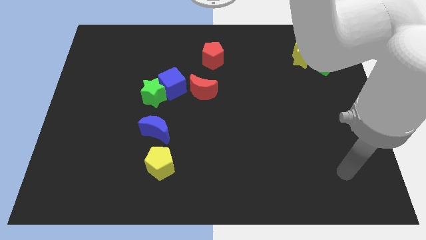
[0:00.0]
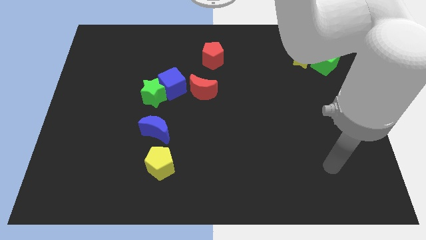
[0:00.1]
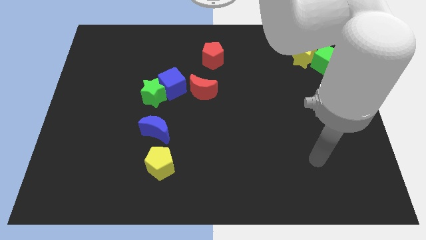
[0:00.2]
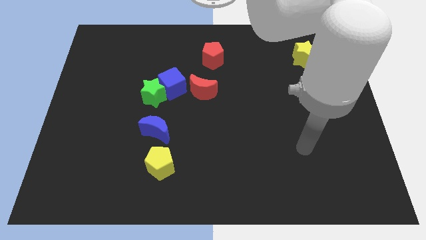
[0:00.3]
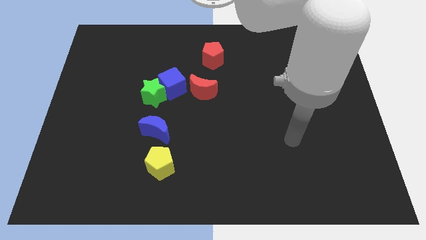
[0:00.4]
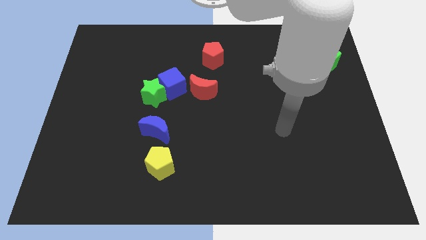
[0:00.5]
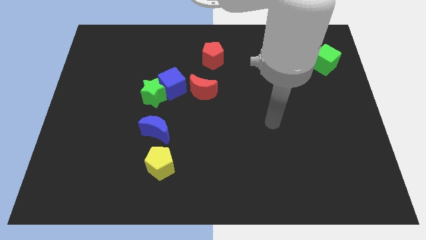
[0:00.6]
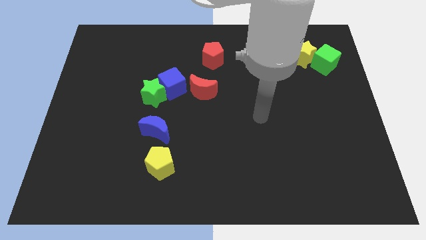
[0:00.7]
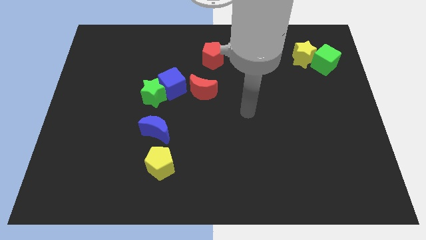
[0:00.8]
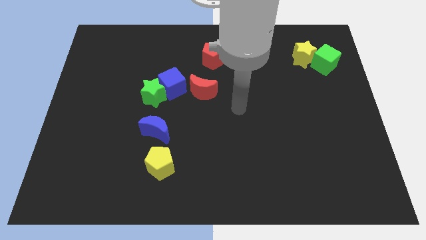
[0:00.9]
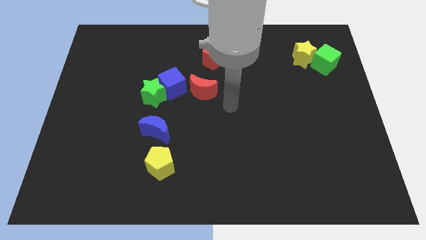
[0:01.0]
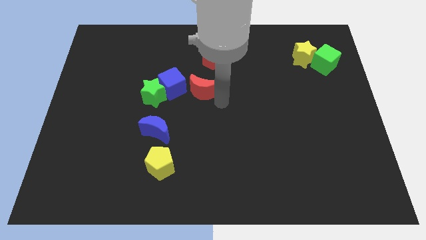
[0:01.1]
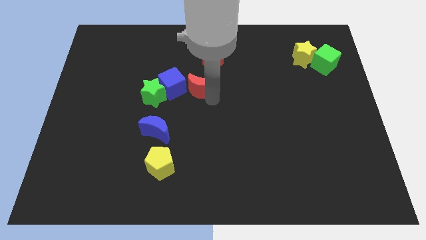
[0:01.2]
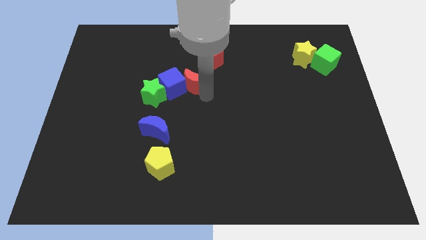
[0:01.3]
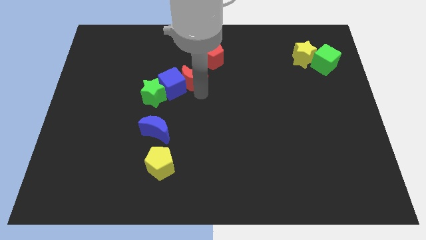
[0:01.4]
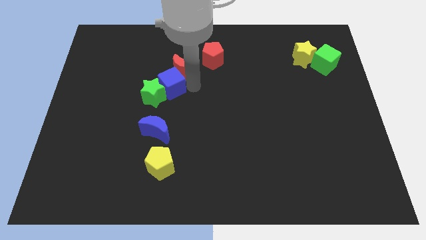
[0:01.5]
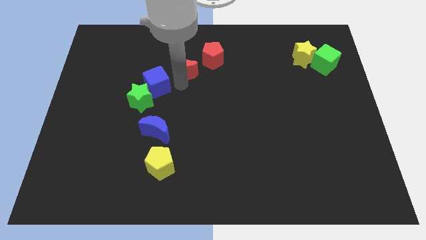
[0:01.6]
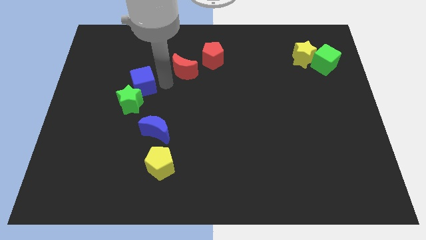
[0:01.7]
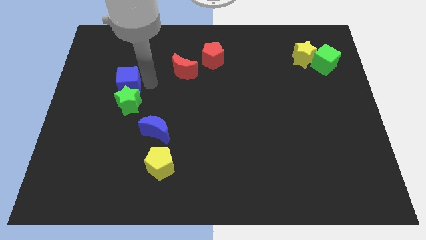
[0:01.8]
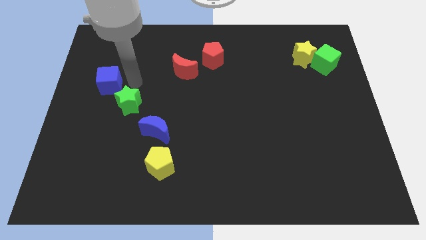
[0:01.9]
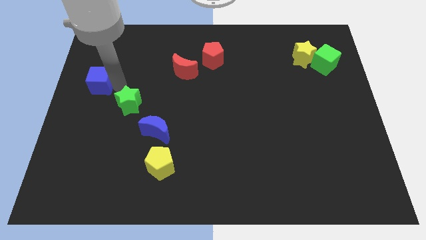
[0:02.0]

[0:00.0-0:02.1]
move the green star away from the blue cube

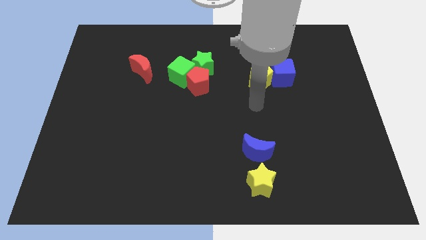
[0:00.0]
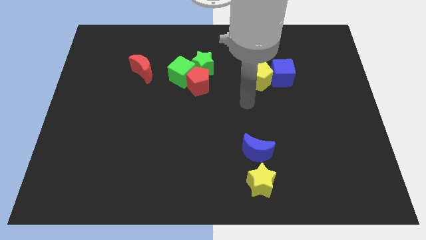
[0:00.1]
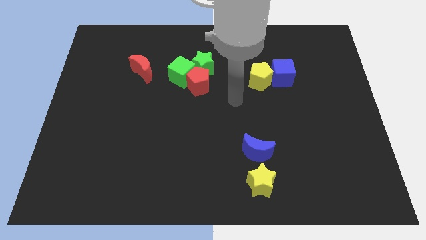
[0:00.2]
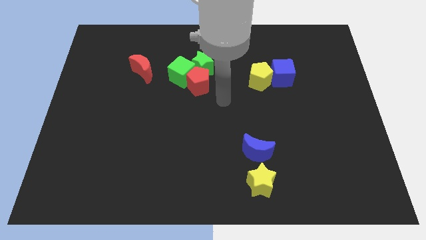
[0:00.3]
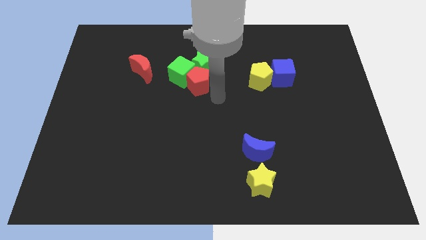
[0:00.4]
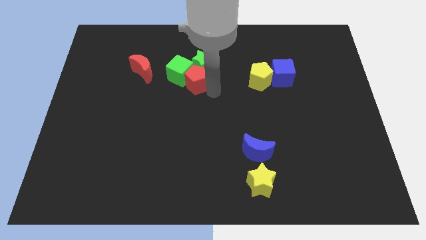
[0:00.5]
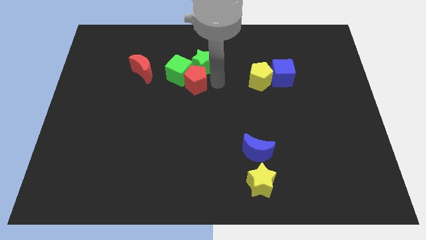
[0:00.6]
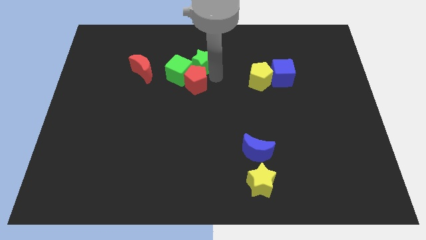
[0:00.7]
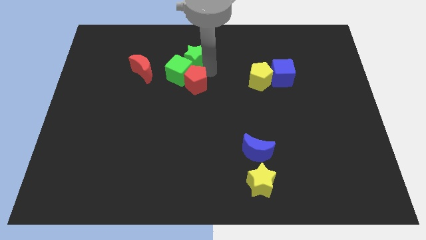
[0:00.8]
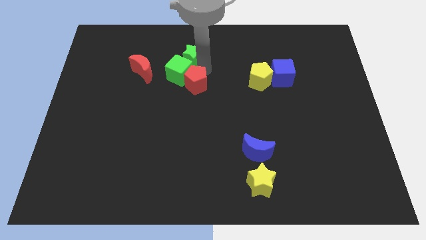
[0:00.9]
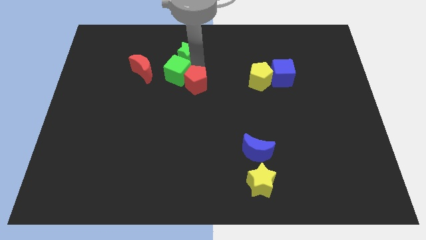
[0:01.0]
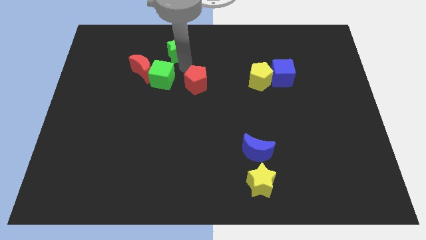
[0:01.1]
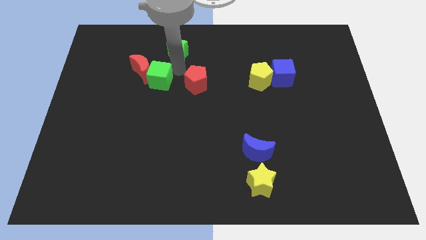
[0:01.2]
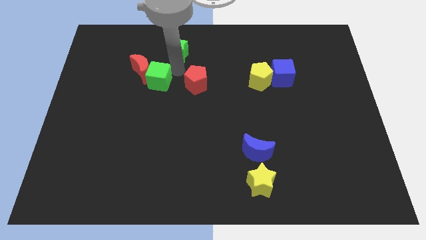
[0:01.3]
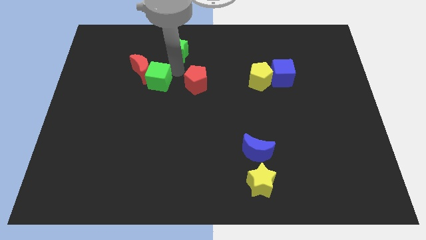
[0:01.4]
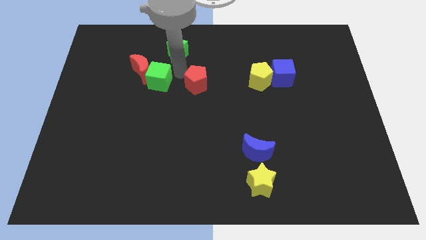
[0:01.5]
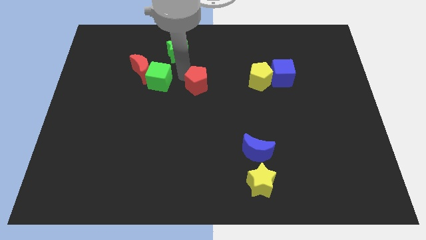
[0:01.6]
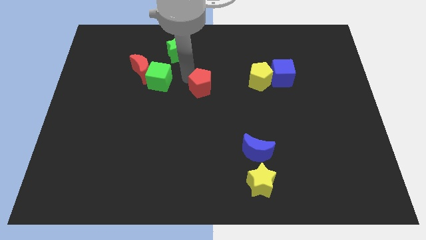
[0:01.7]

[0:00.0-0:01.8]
separate the red pentagon from the green cube and green star

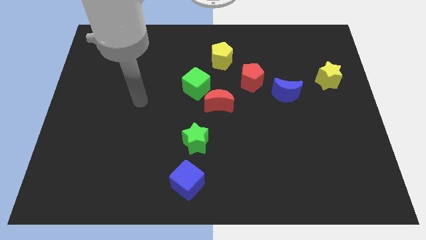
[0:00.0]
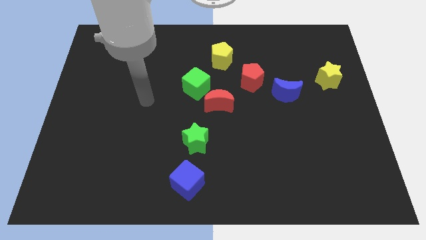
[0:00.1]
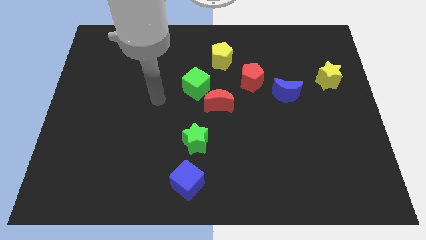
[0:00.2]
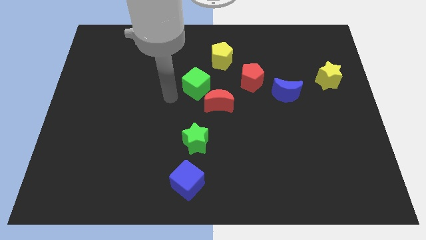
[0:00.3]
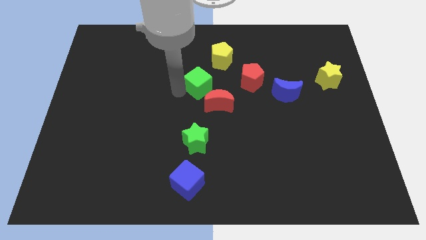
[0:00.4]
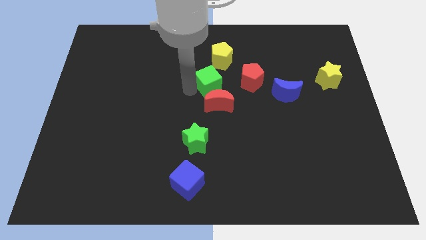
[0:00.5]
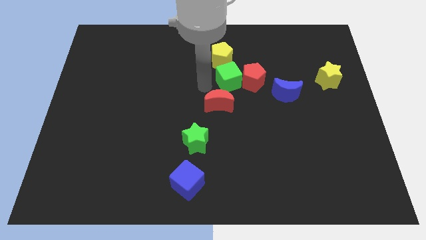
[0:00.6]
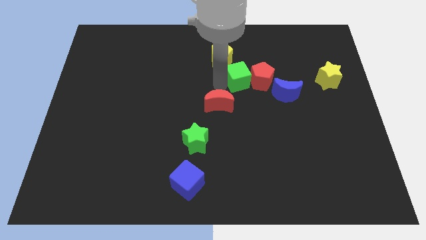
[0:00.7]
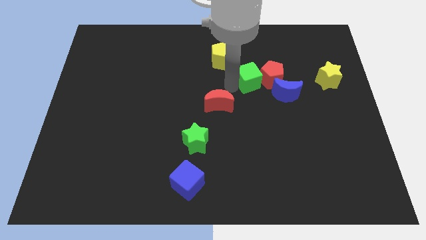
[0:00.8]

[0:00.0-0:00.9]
separate the red moon from the green cube

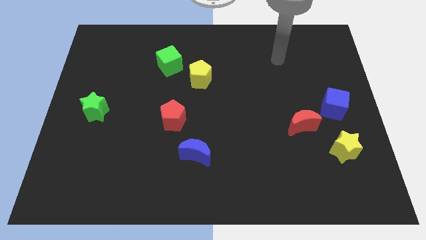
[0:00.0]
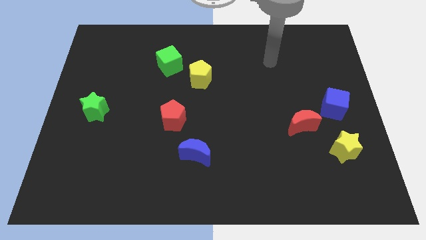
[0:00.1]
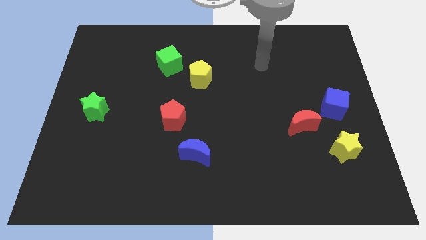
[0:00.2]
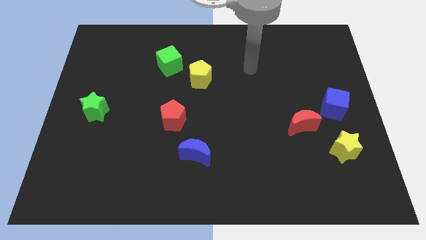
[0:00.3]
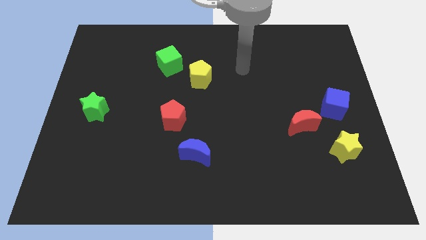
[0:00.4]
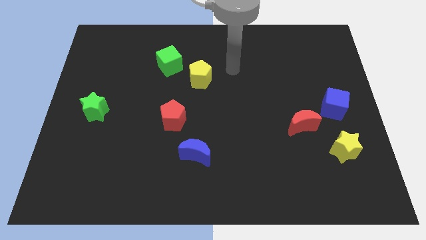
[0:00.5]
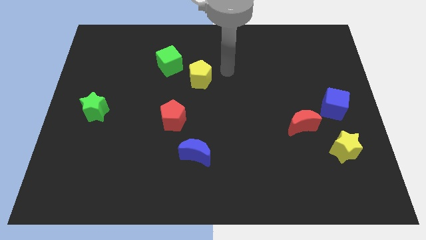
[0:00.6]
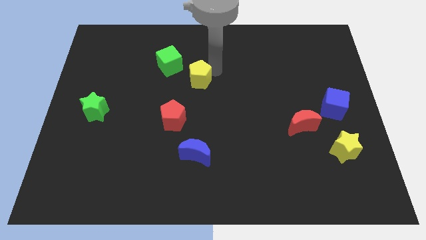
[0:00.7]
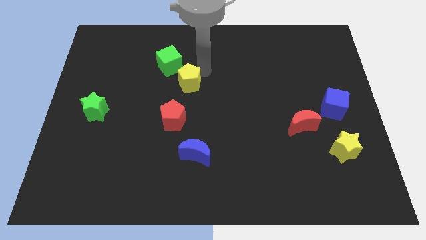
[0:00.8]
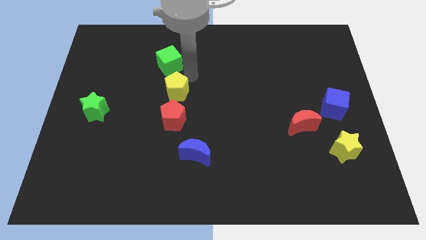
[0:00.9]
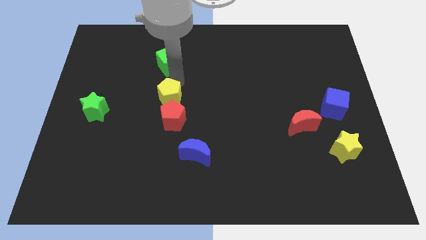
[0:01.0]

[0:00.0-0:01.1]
separate the green cube from the yellow pentagon

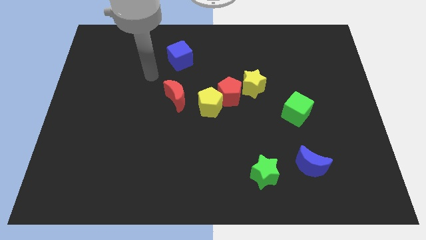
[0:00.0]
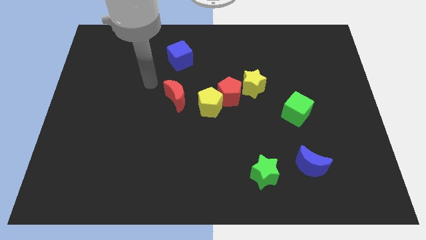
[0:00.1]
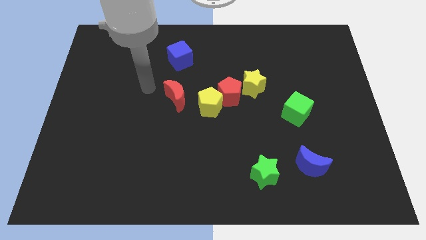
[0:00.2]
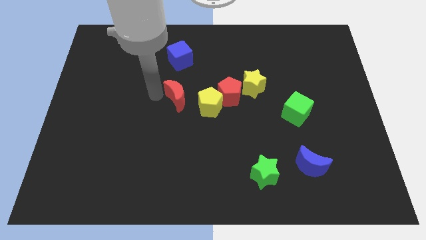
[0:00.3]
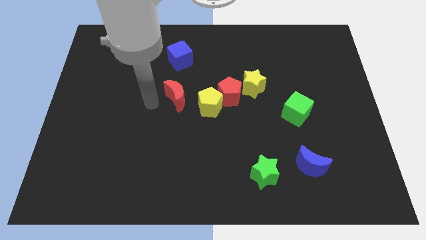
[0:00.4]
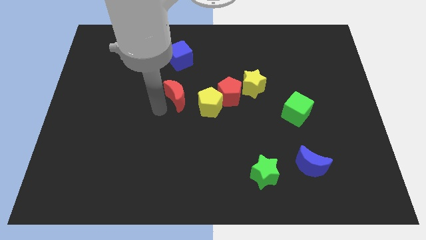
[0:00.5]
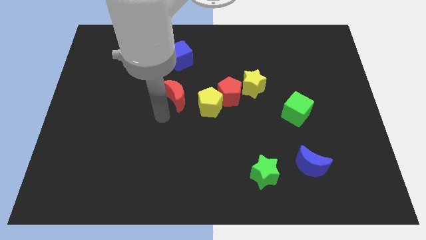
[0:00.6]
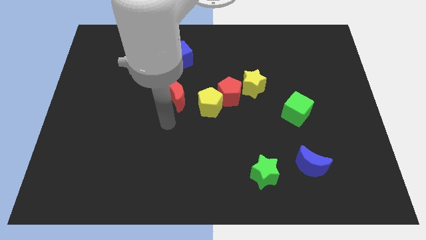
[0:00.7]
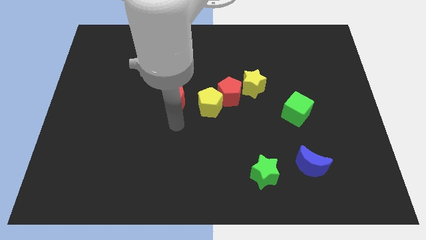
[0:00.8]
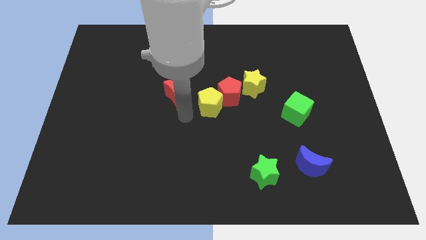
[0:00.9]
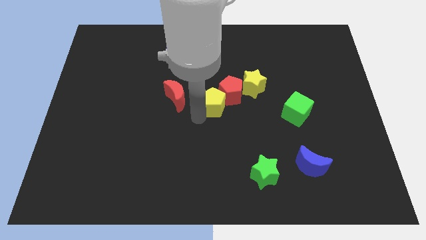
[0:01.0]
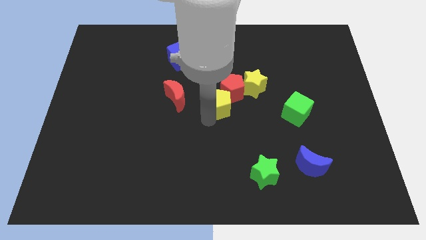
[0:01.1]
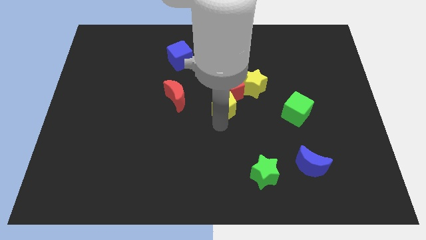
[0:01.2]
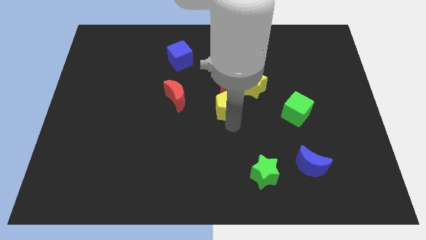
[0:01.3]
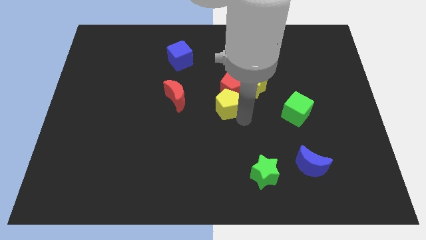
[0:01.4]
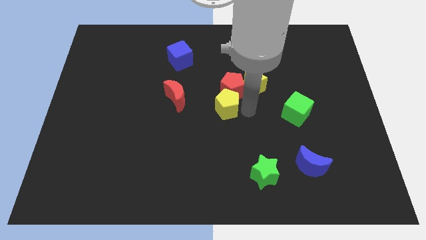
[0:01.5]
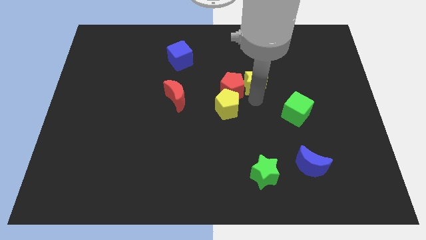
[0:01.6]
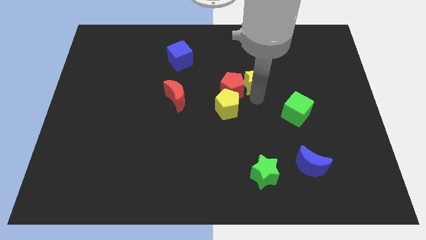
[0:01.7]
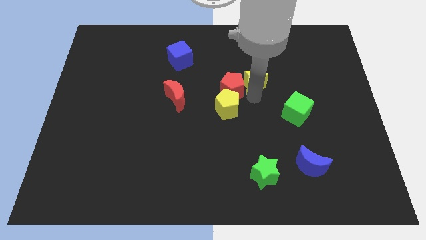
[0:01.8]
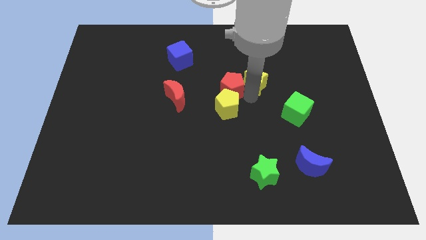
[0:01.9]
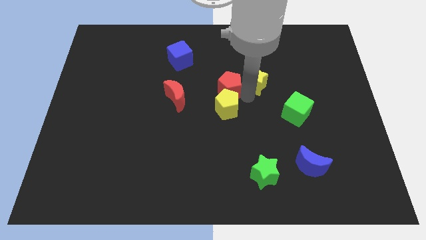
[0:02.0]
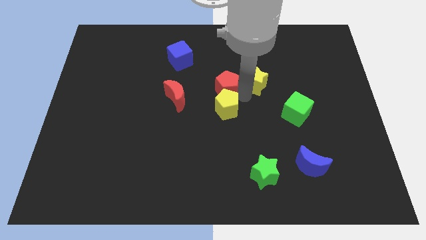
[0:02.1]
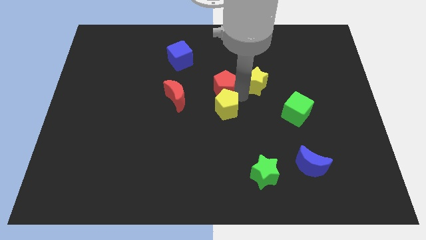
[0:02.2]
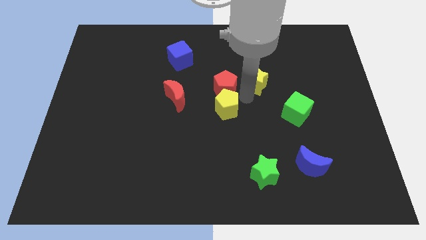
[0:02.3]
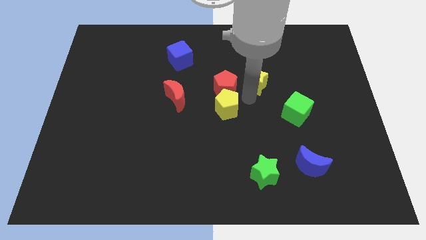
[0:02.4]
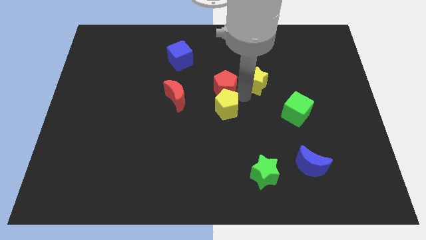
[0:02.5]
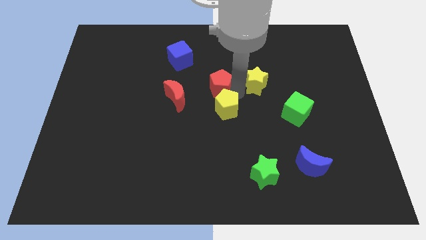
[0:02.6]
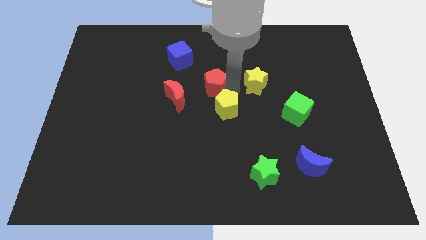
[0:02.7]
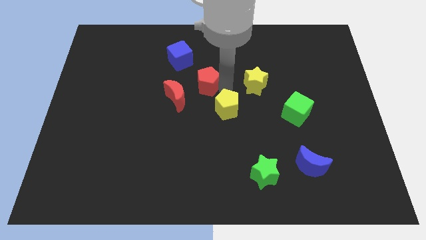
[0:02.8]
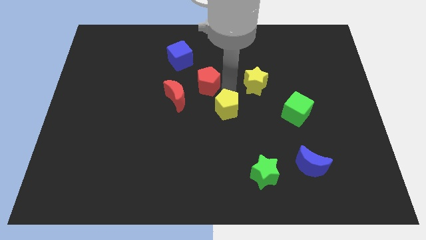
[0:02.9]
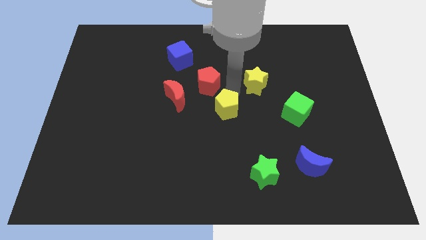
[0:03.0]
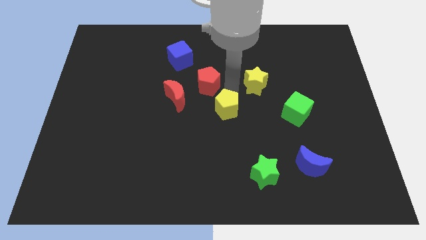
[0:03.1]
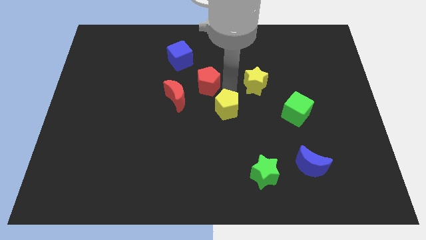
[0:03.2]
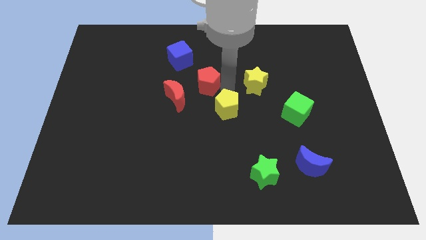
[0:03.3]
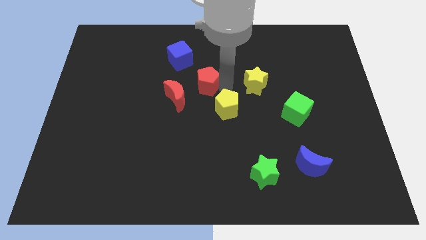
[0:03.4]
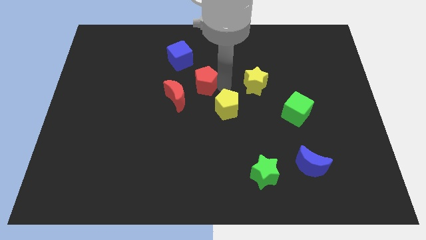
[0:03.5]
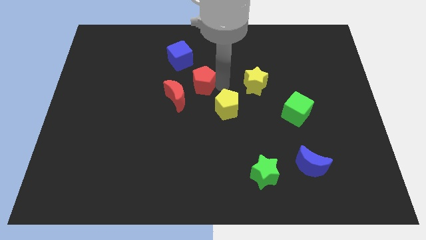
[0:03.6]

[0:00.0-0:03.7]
separate the red pentagon from the yellow pentagon and yellow star
